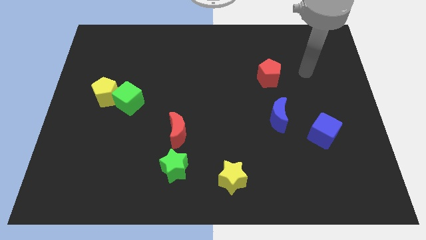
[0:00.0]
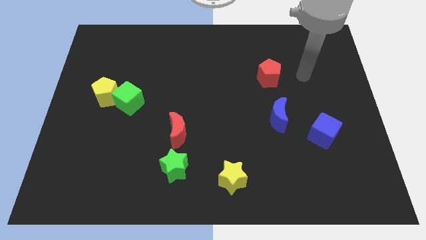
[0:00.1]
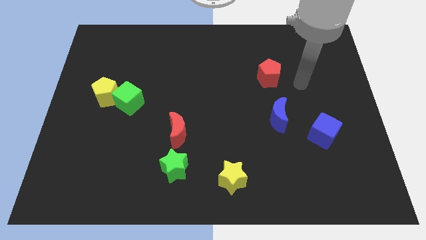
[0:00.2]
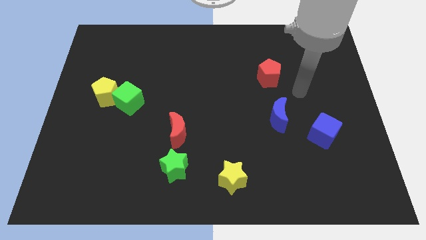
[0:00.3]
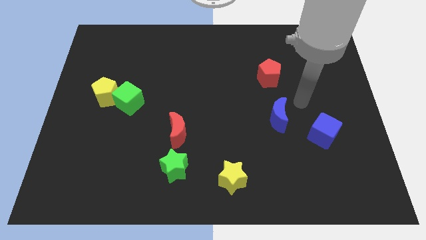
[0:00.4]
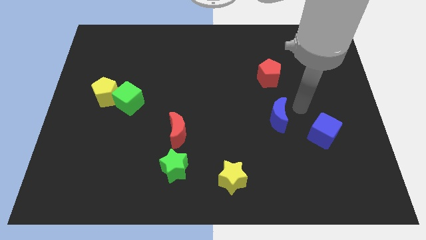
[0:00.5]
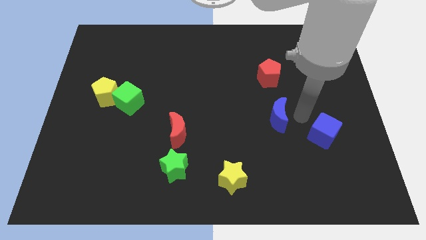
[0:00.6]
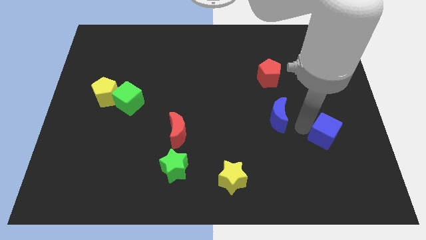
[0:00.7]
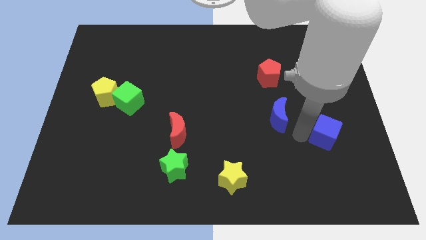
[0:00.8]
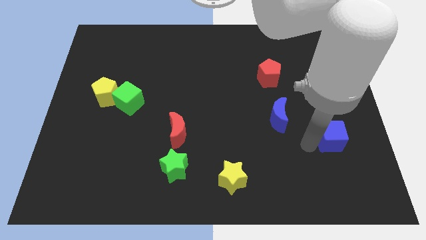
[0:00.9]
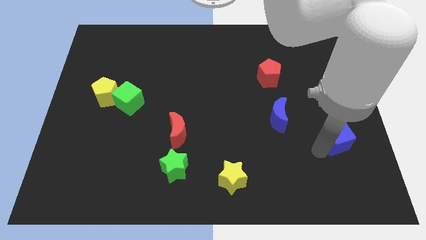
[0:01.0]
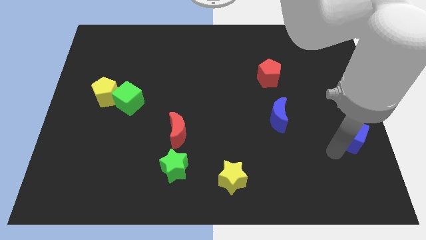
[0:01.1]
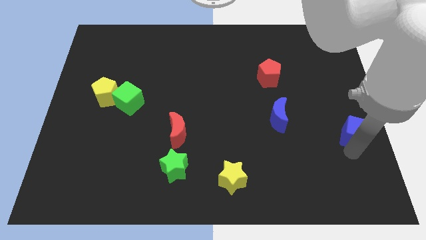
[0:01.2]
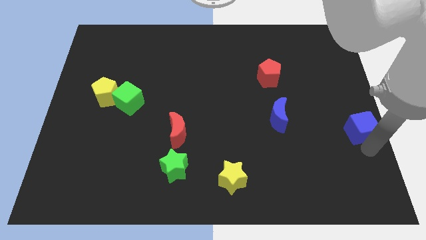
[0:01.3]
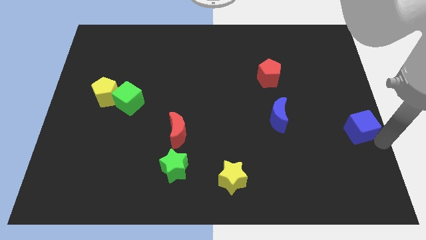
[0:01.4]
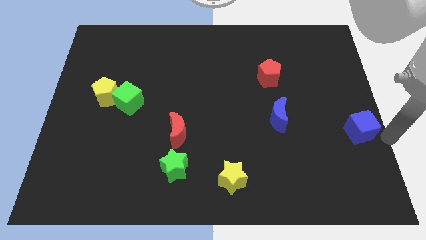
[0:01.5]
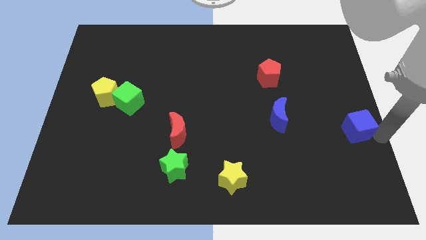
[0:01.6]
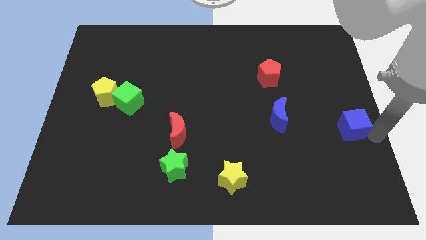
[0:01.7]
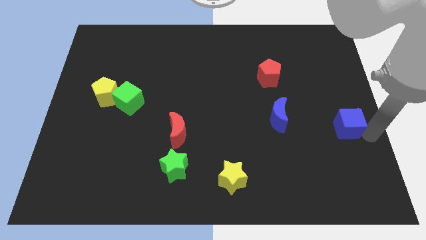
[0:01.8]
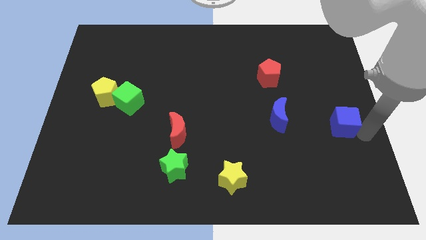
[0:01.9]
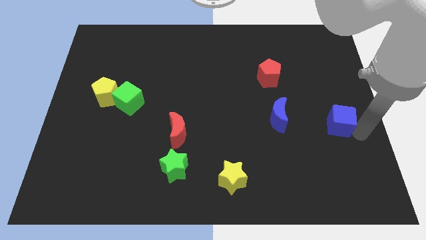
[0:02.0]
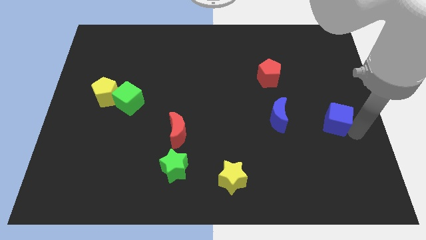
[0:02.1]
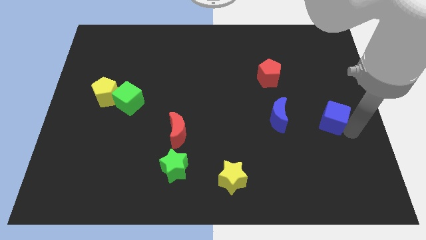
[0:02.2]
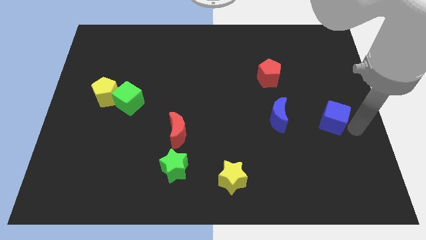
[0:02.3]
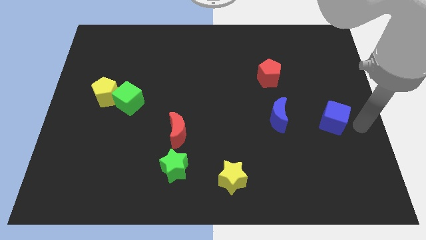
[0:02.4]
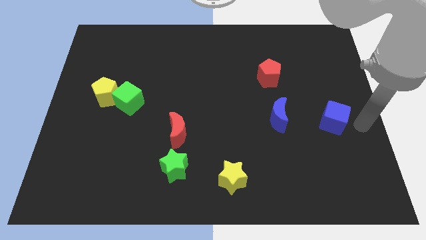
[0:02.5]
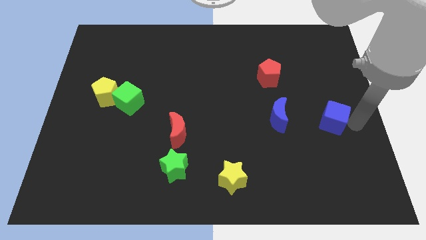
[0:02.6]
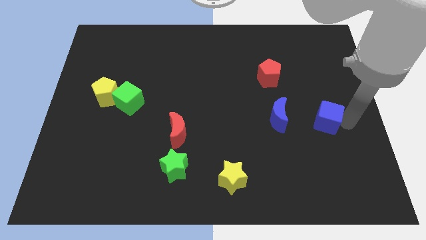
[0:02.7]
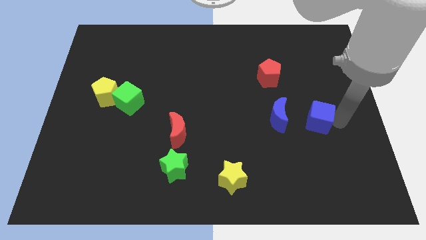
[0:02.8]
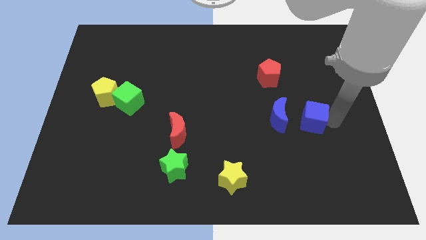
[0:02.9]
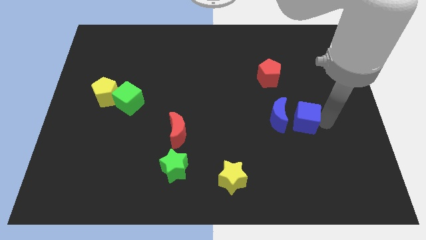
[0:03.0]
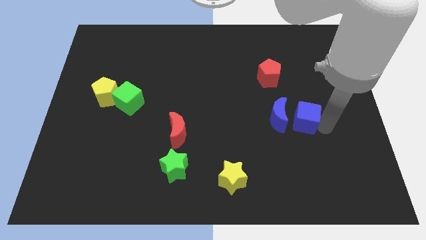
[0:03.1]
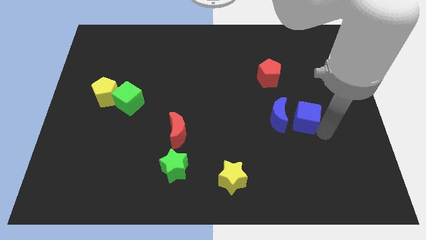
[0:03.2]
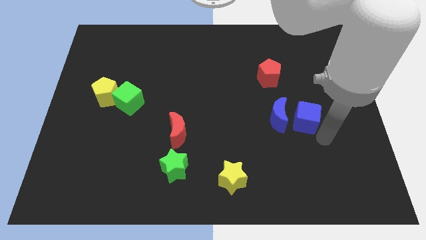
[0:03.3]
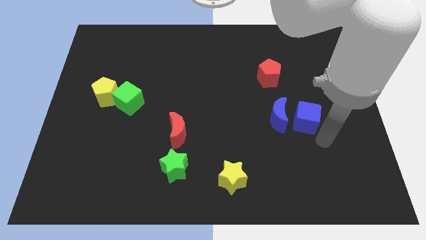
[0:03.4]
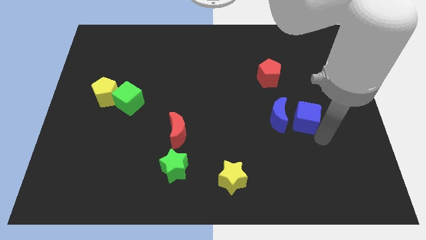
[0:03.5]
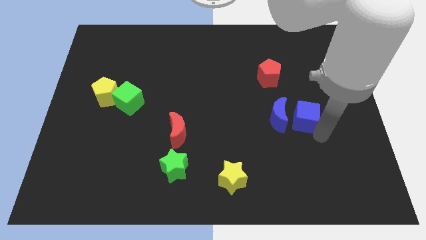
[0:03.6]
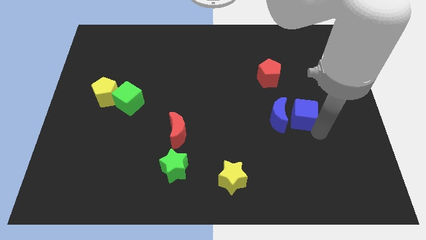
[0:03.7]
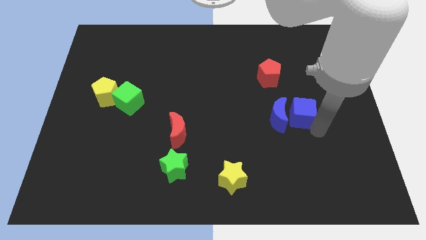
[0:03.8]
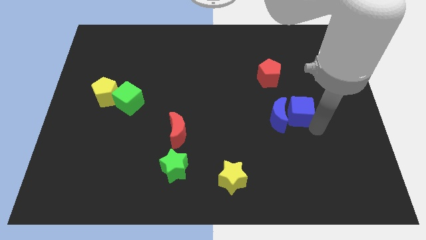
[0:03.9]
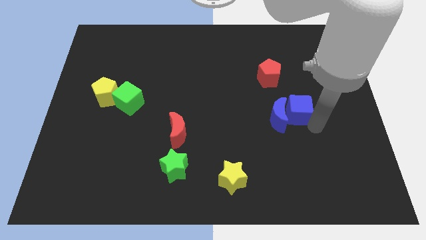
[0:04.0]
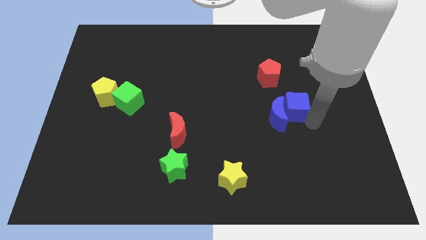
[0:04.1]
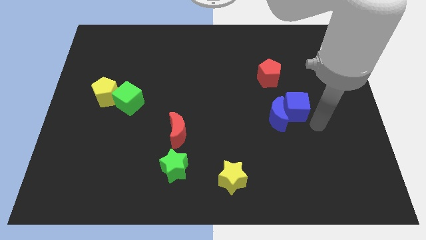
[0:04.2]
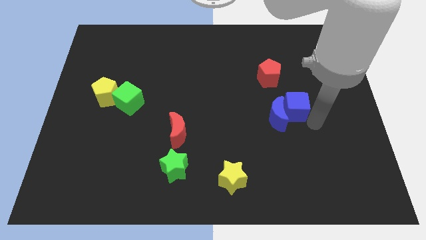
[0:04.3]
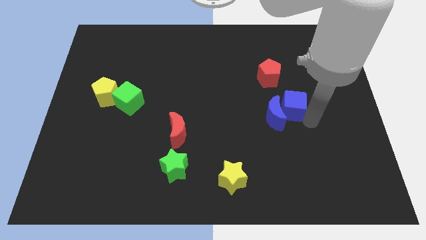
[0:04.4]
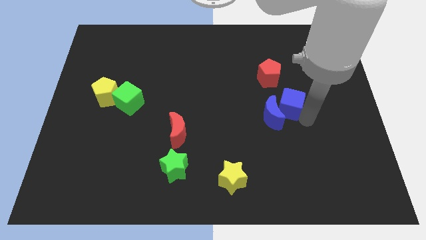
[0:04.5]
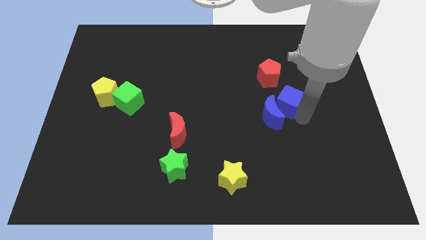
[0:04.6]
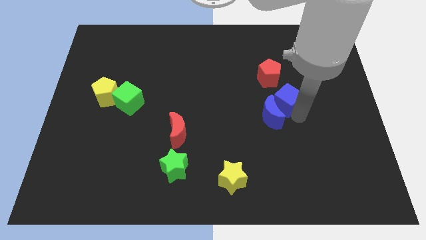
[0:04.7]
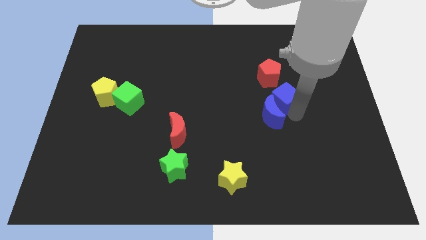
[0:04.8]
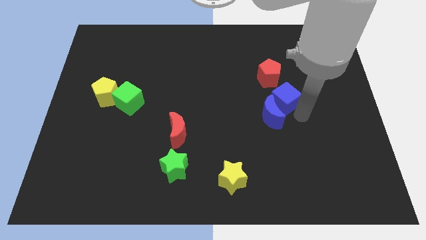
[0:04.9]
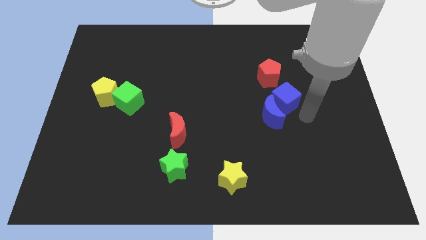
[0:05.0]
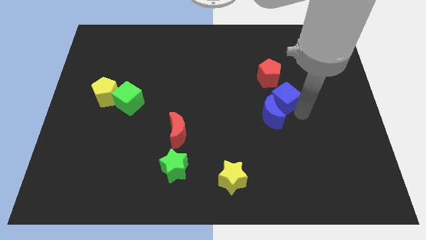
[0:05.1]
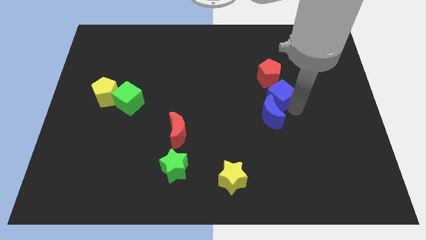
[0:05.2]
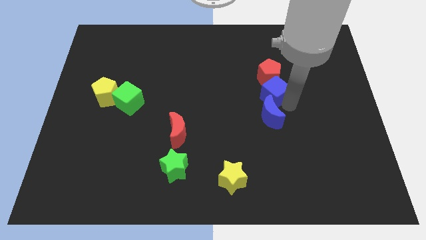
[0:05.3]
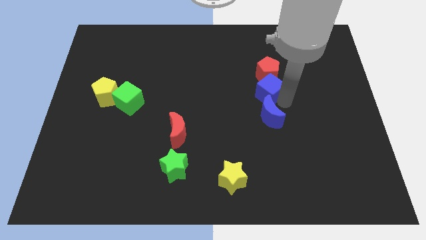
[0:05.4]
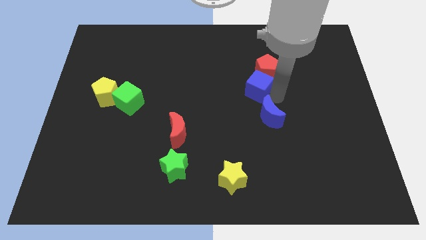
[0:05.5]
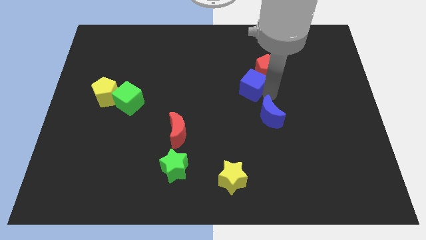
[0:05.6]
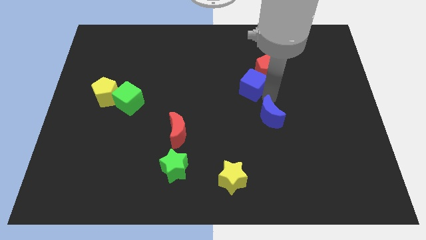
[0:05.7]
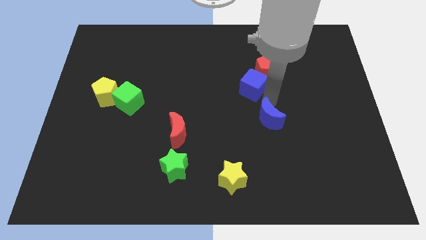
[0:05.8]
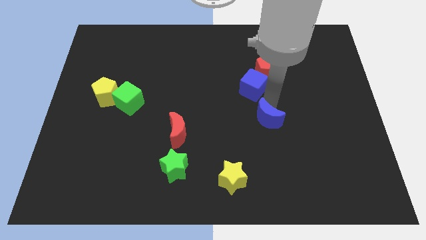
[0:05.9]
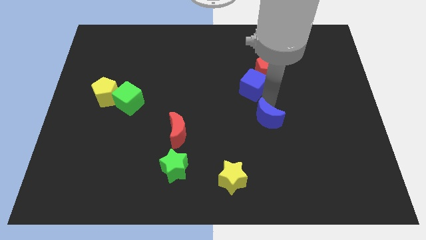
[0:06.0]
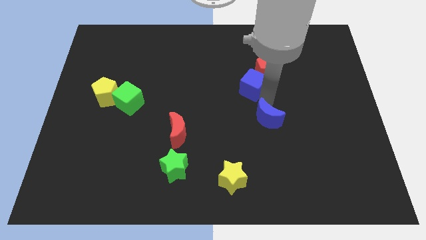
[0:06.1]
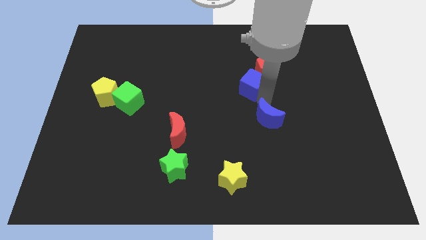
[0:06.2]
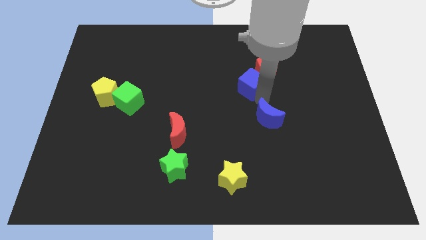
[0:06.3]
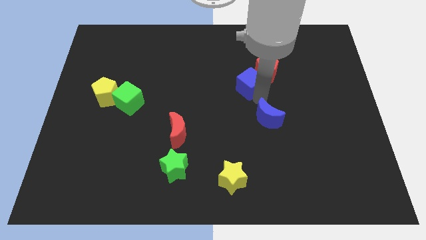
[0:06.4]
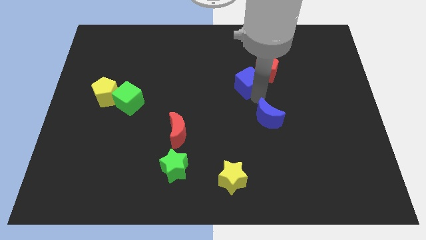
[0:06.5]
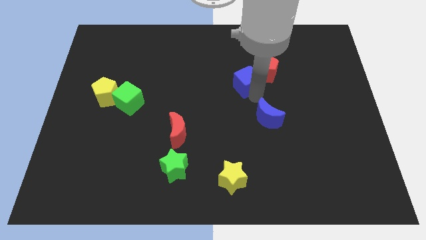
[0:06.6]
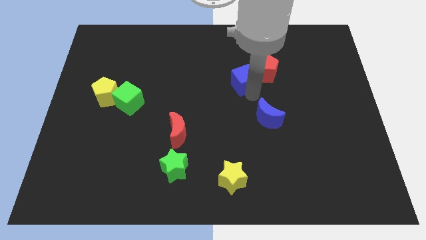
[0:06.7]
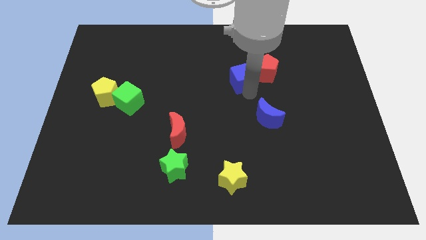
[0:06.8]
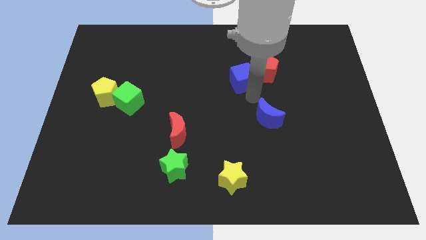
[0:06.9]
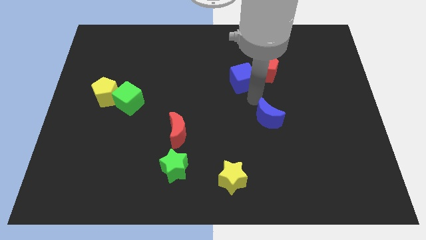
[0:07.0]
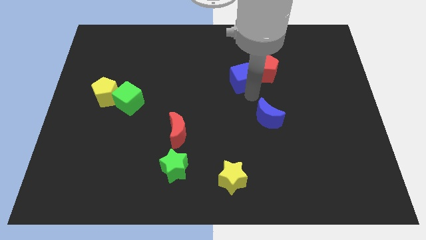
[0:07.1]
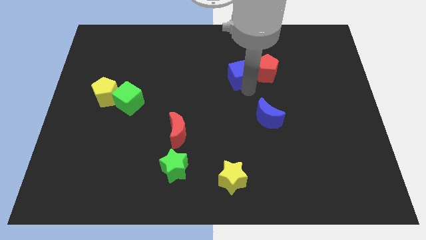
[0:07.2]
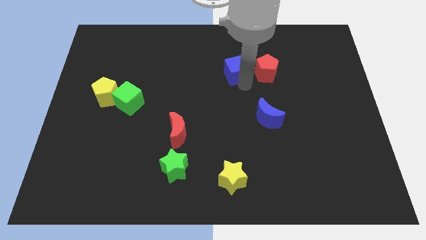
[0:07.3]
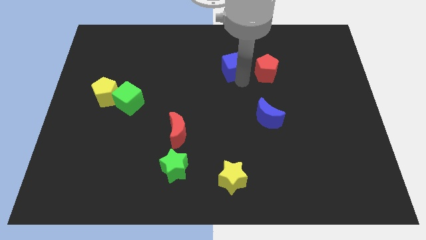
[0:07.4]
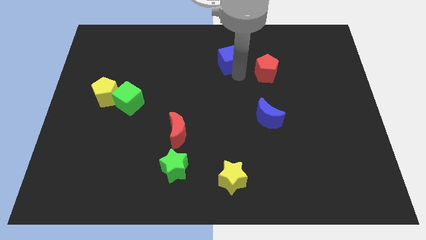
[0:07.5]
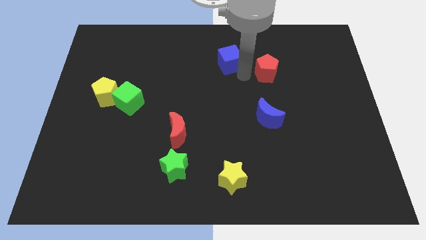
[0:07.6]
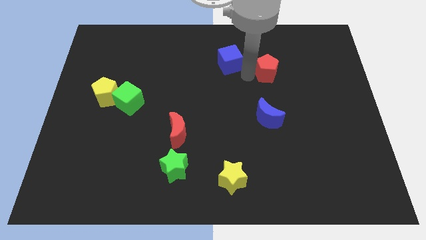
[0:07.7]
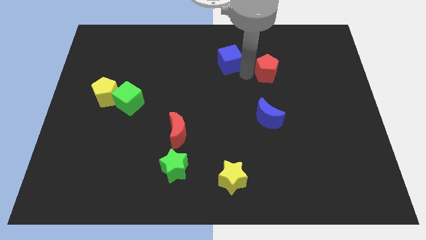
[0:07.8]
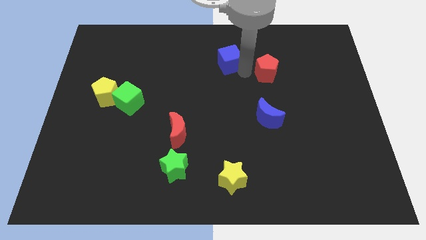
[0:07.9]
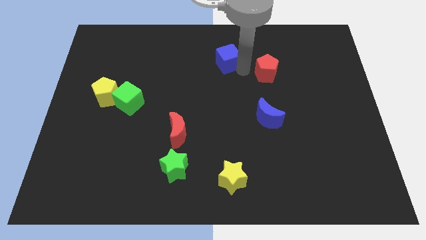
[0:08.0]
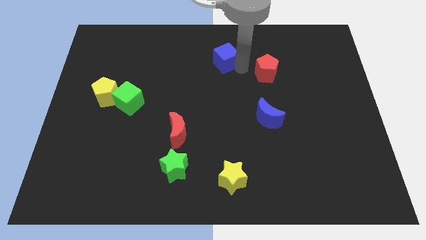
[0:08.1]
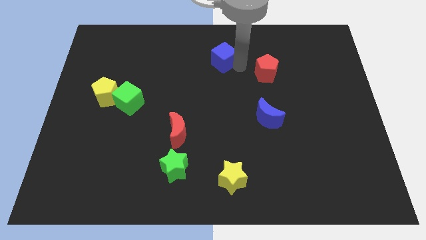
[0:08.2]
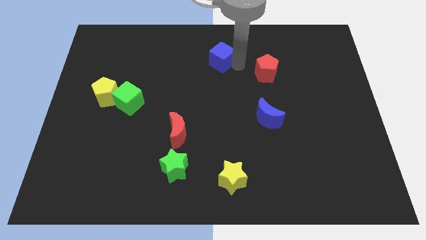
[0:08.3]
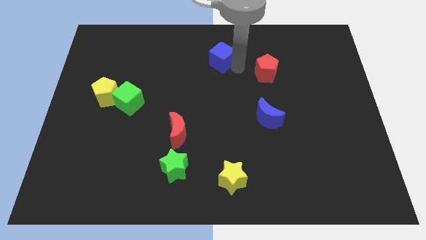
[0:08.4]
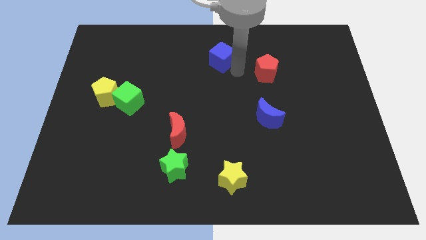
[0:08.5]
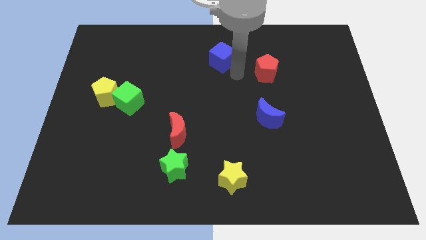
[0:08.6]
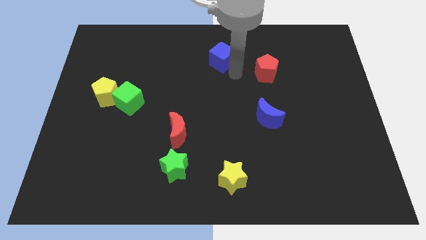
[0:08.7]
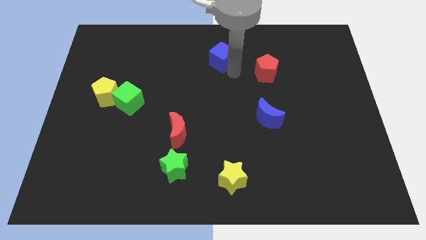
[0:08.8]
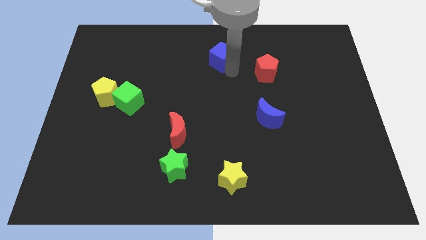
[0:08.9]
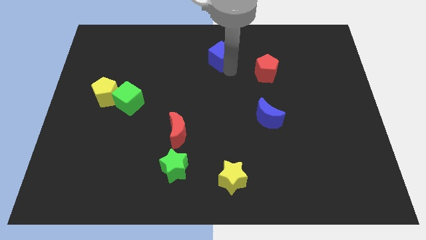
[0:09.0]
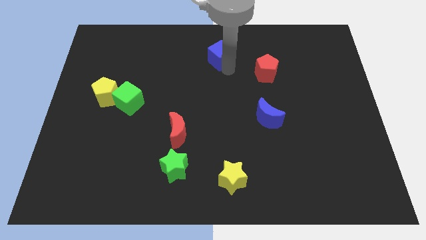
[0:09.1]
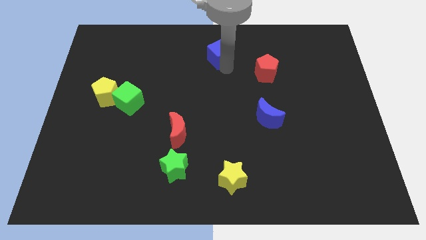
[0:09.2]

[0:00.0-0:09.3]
put the blue cube to the top side
